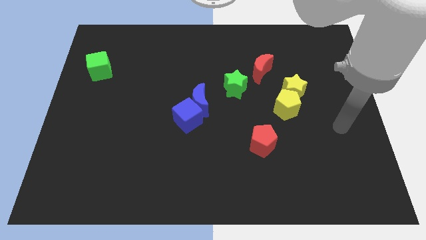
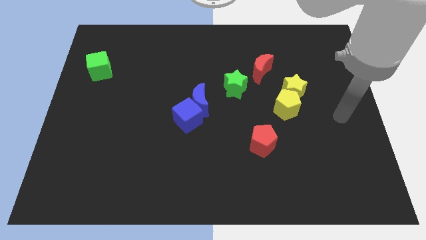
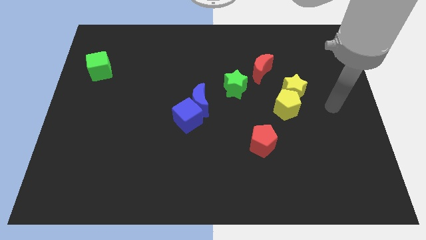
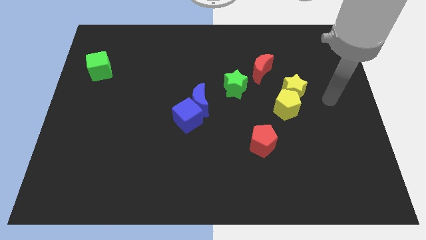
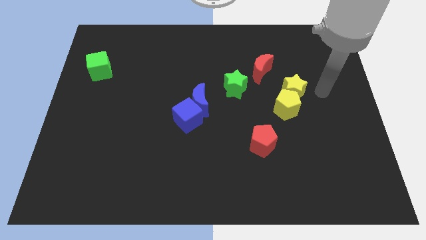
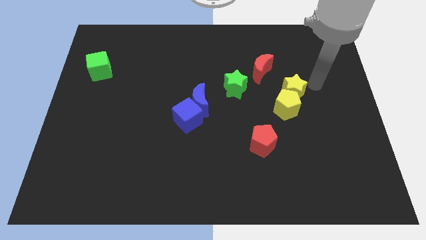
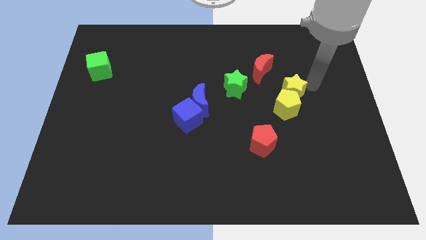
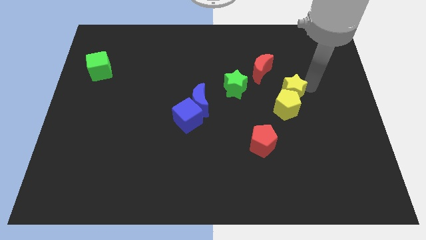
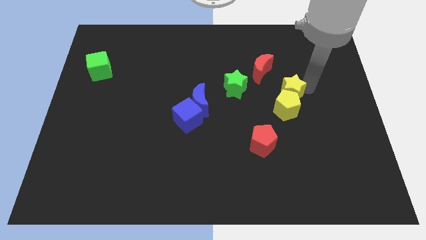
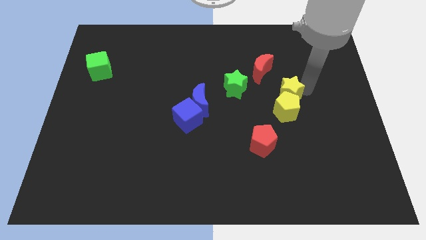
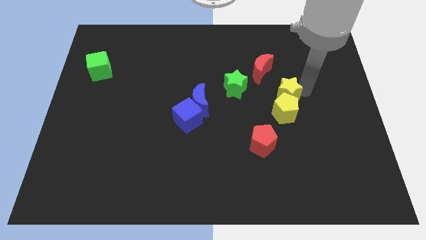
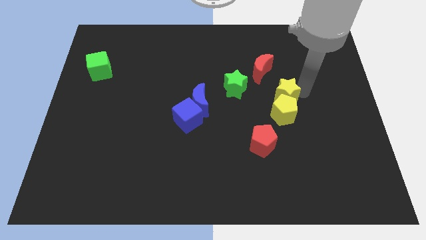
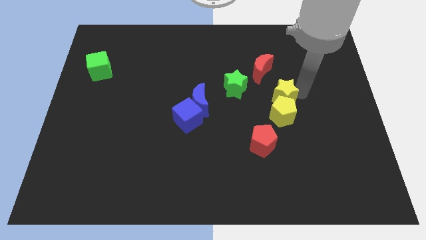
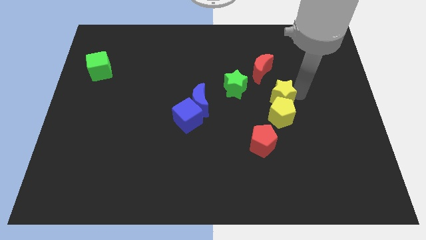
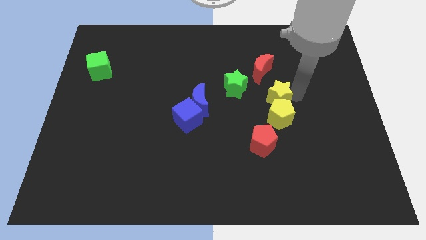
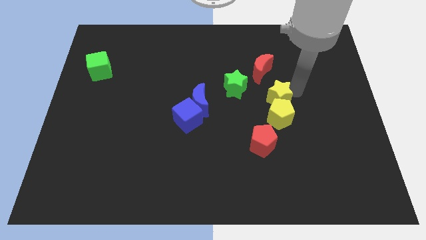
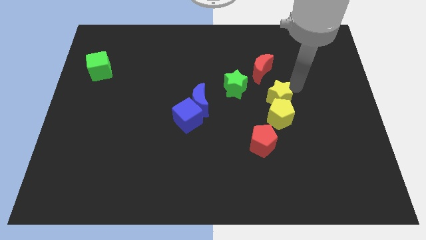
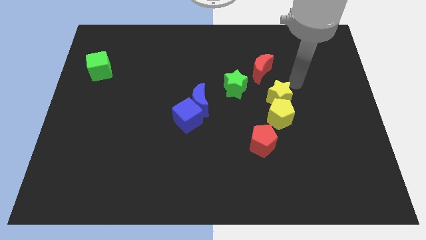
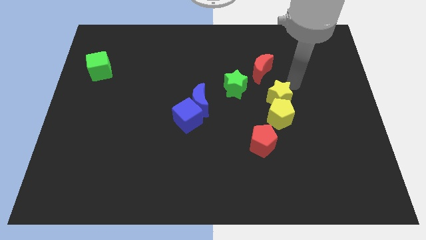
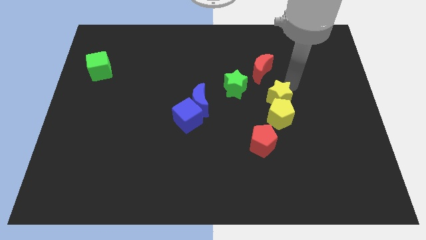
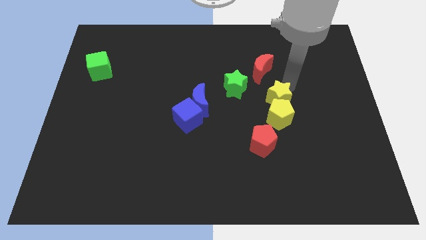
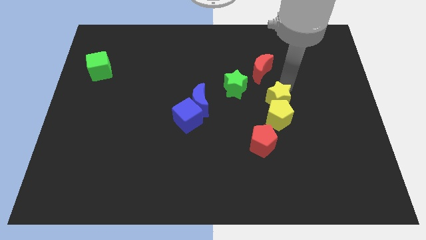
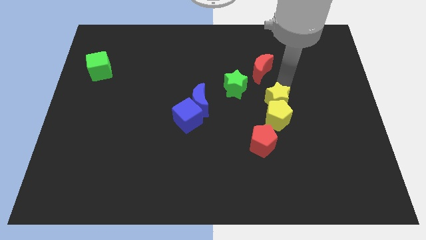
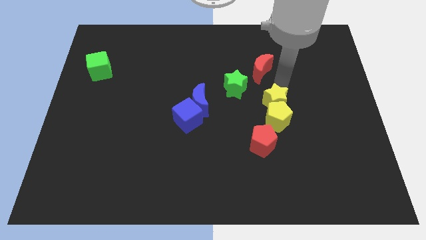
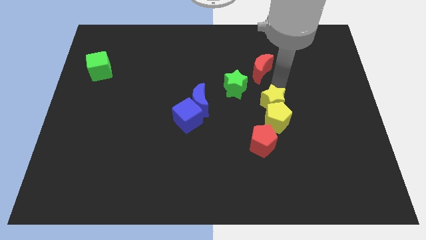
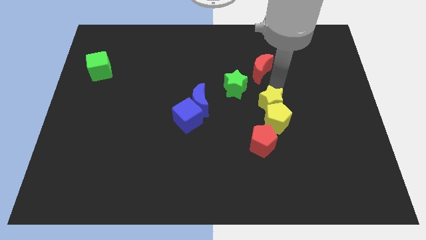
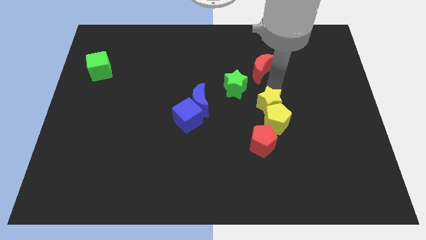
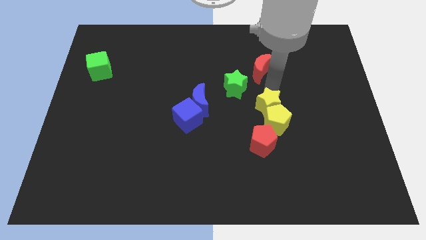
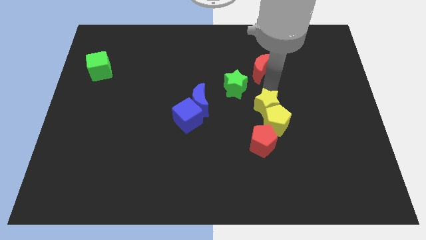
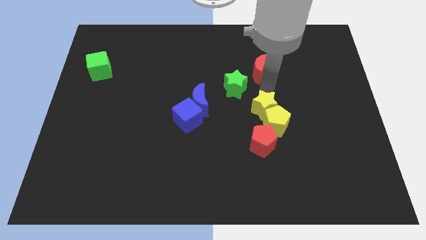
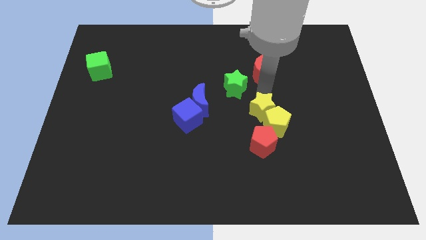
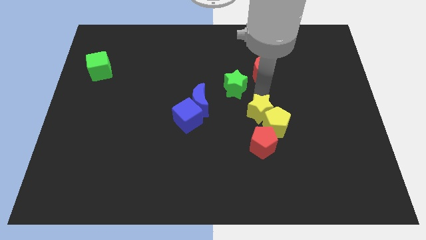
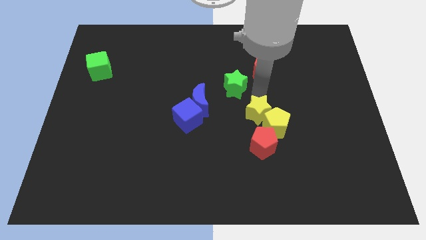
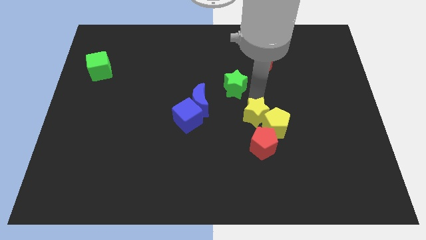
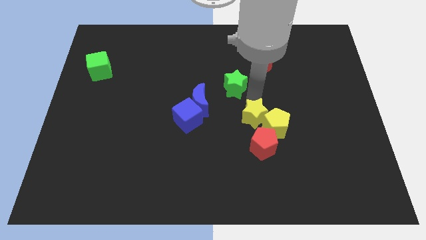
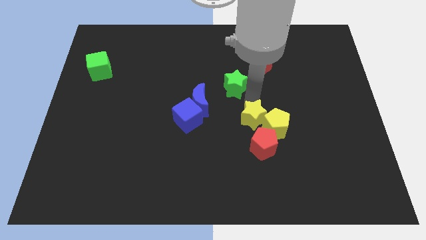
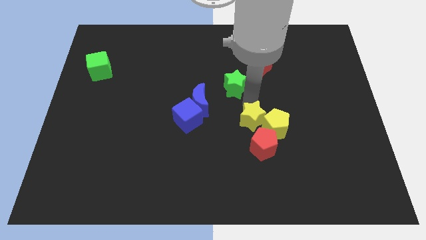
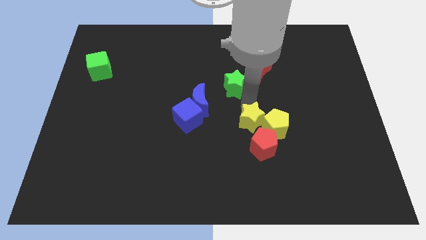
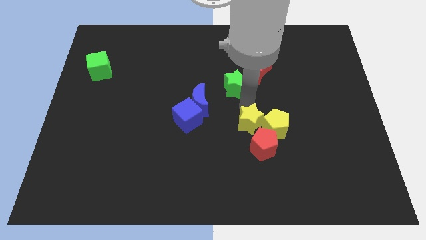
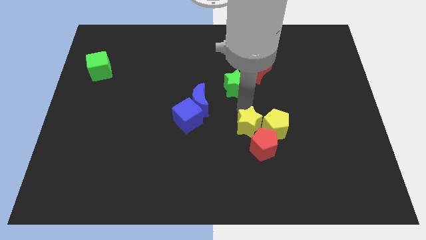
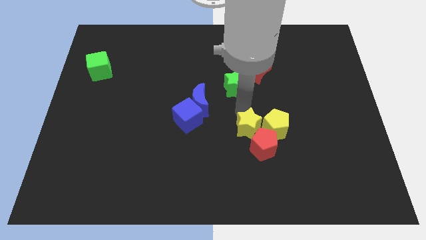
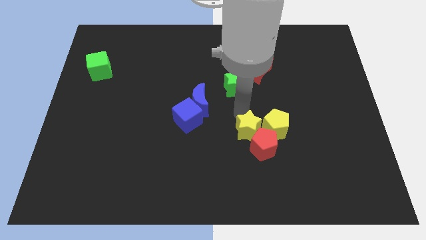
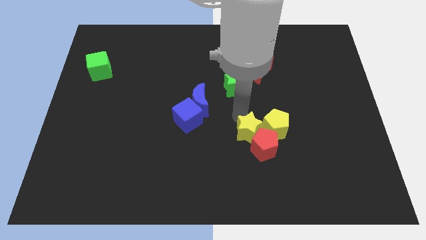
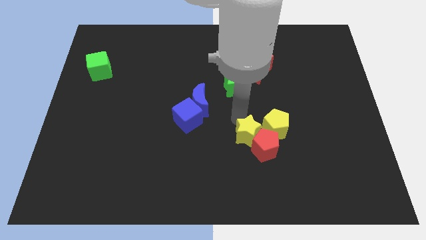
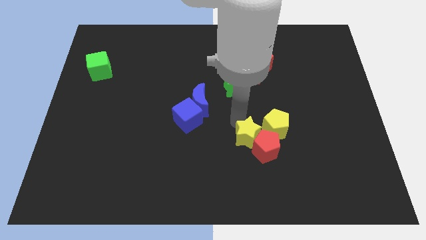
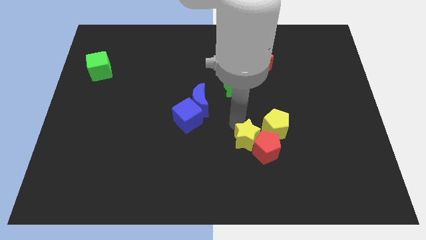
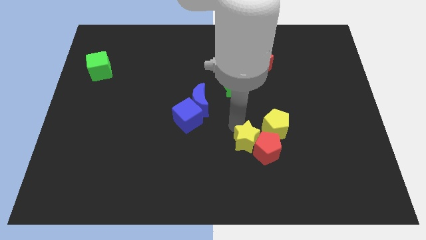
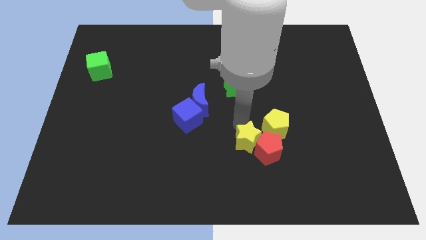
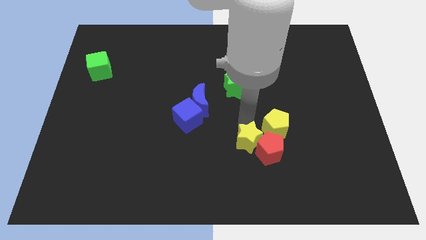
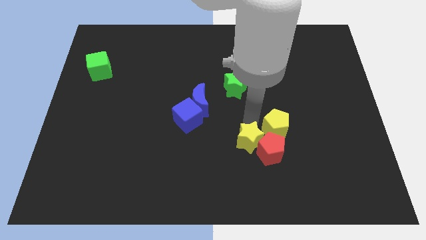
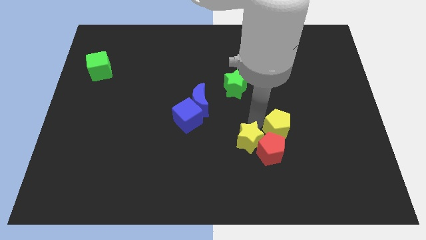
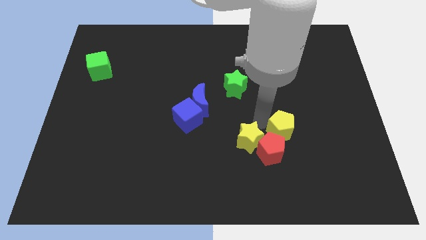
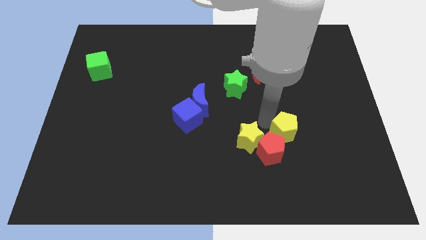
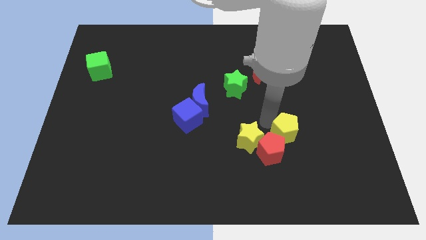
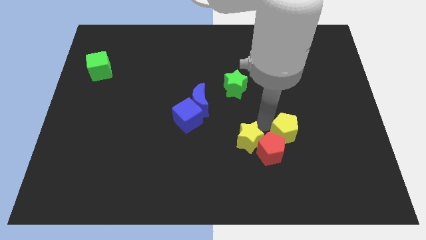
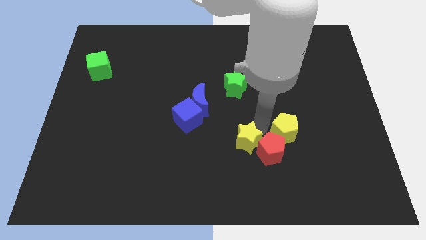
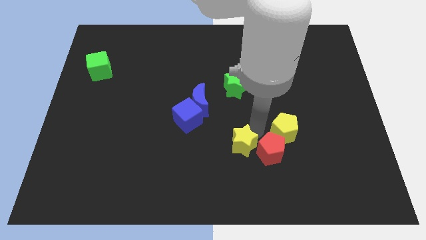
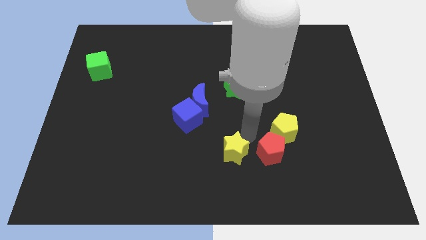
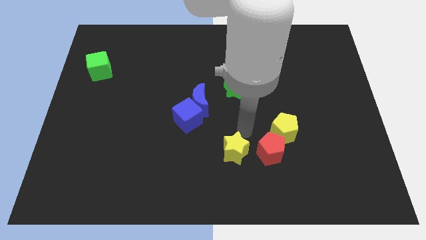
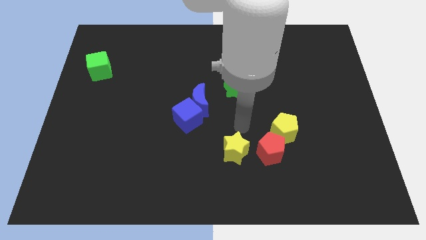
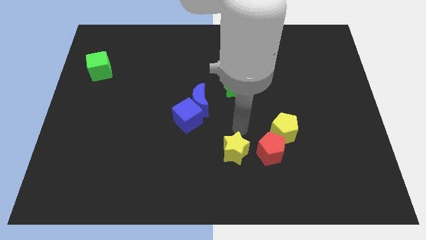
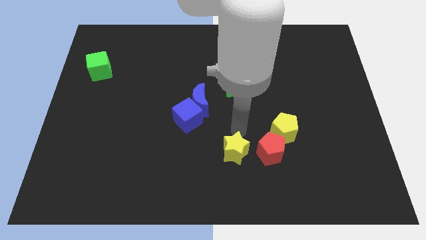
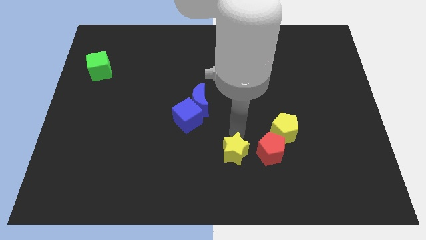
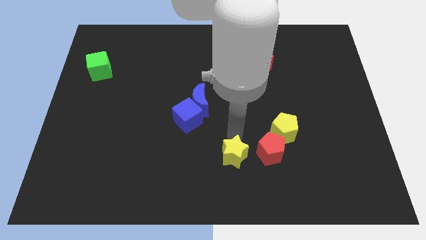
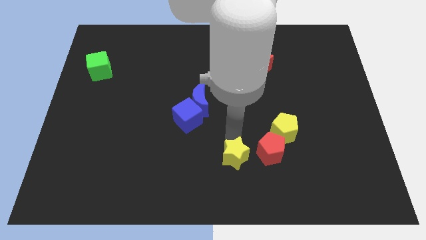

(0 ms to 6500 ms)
push the yellow star to the bottom

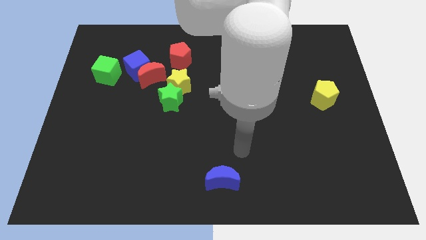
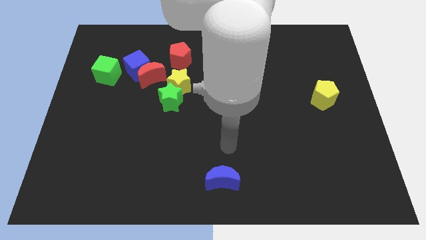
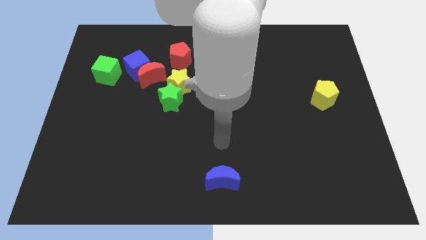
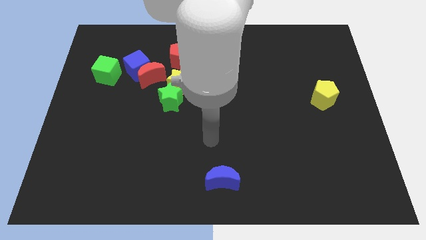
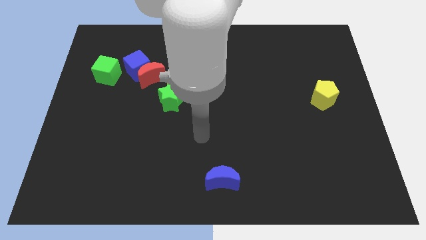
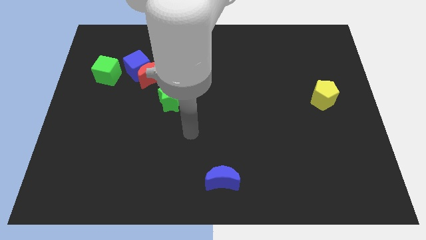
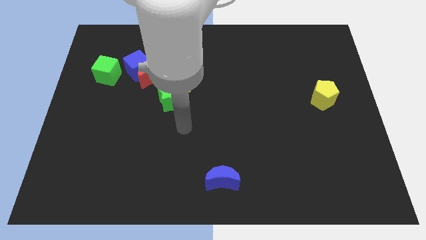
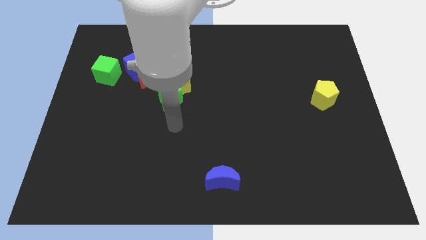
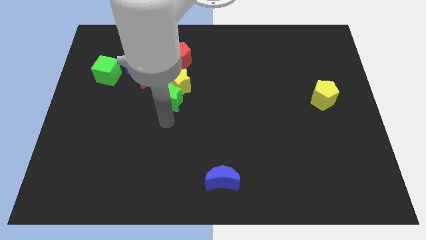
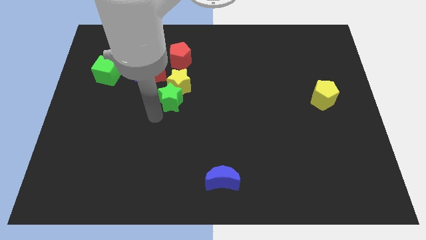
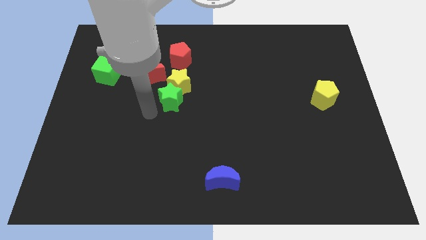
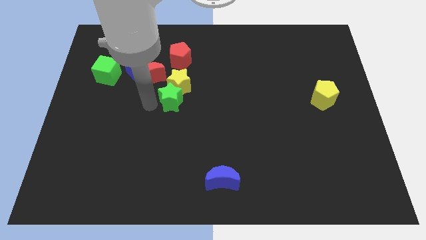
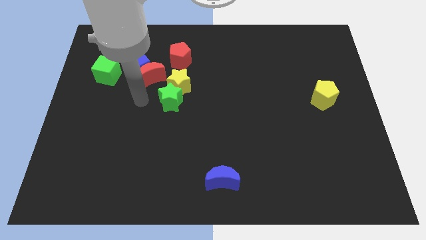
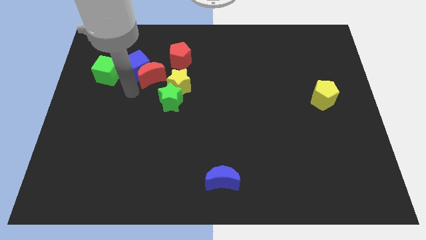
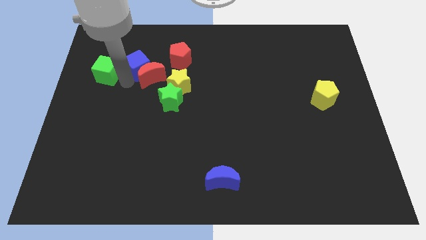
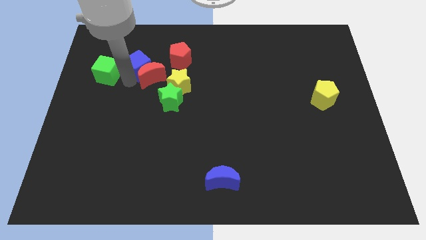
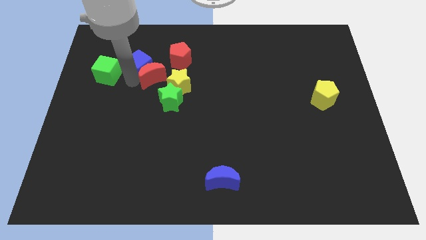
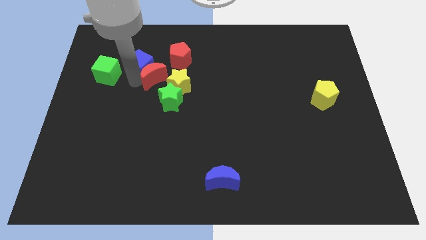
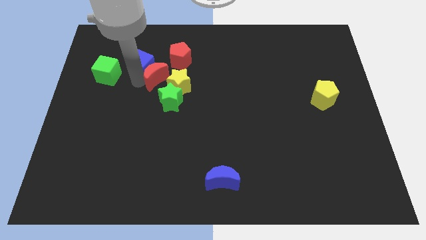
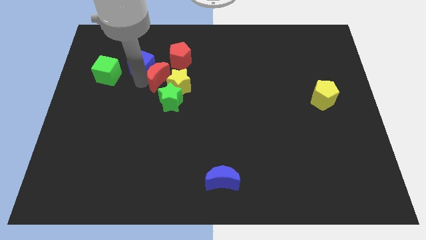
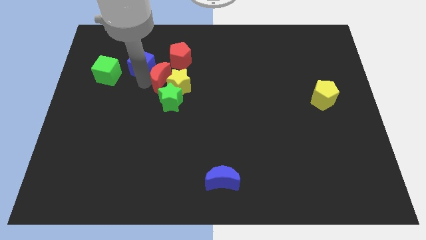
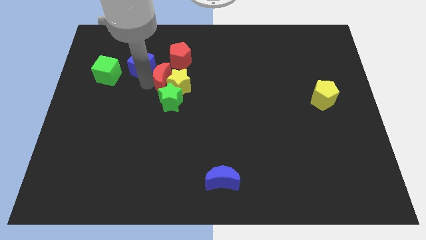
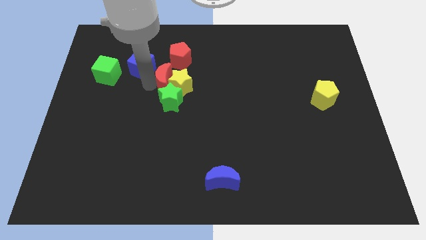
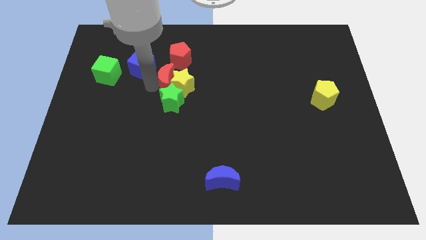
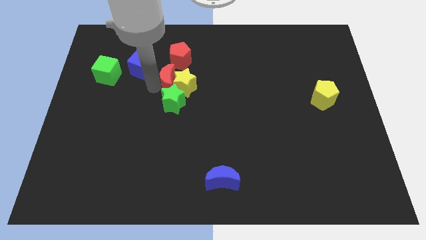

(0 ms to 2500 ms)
slide the red moon to the center
